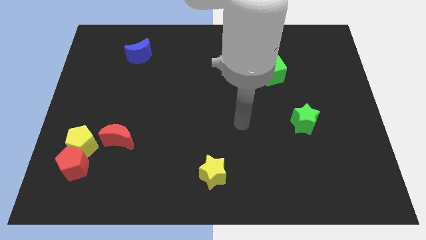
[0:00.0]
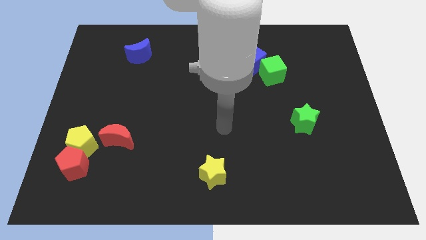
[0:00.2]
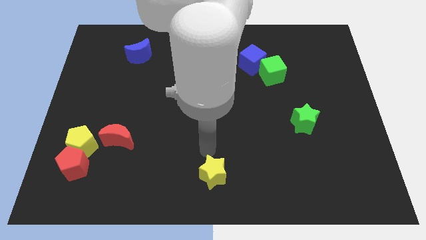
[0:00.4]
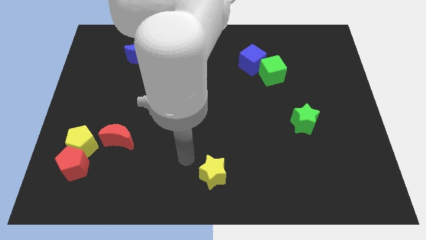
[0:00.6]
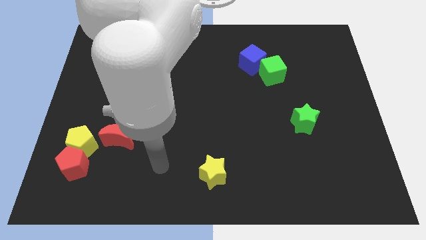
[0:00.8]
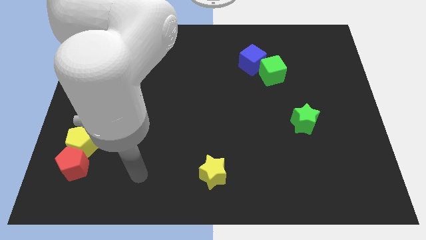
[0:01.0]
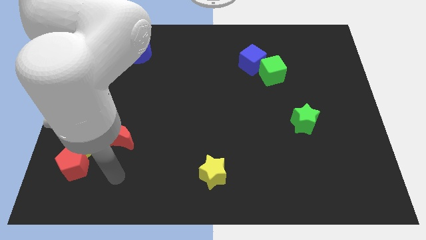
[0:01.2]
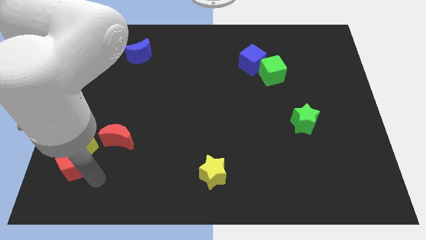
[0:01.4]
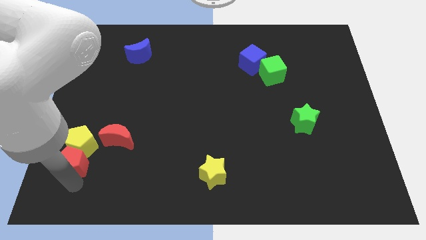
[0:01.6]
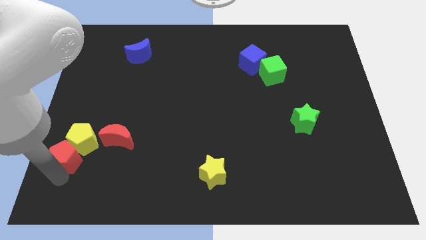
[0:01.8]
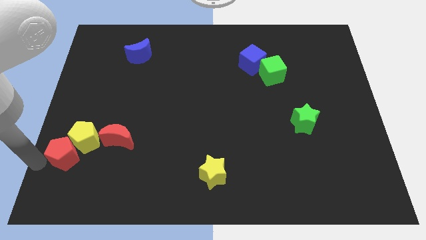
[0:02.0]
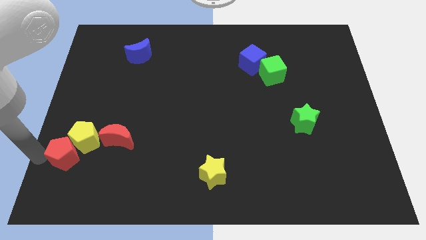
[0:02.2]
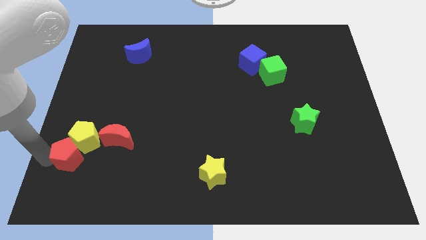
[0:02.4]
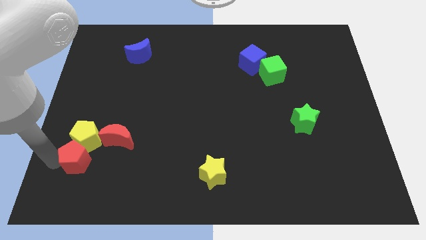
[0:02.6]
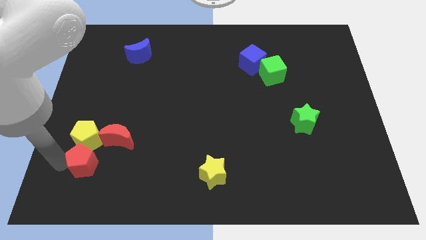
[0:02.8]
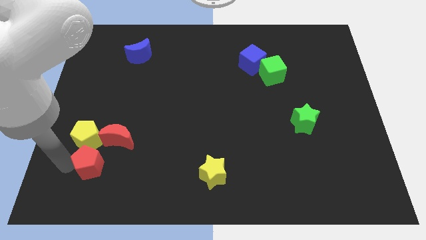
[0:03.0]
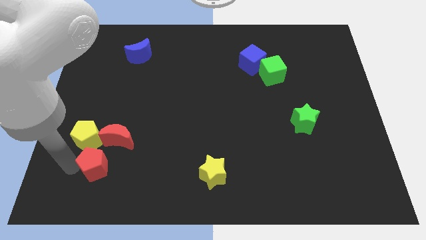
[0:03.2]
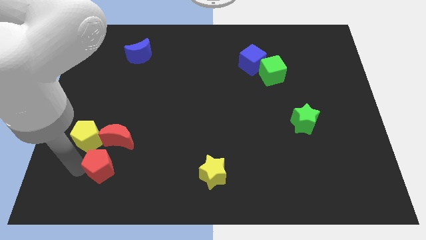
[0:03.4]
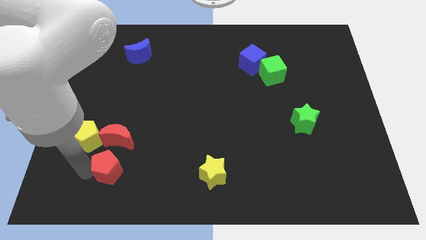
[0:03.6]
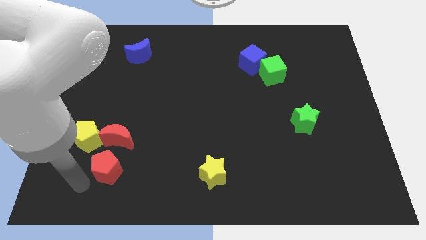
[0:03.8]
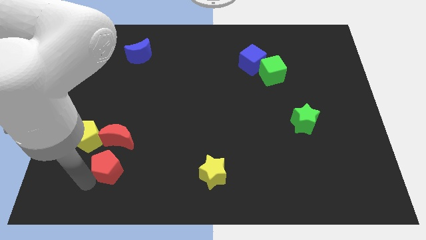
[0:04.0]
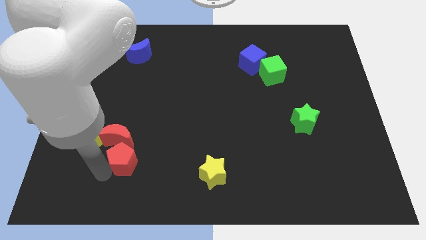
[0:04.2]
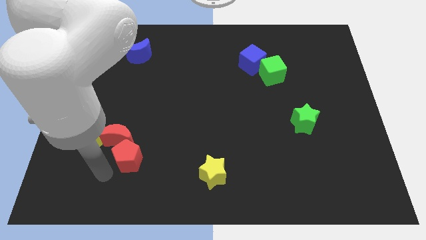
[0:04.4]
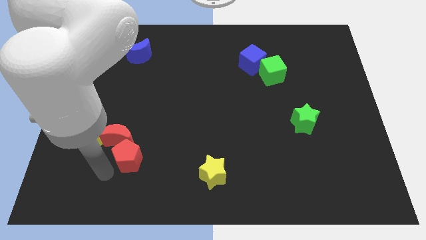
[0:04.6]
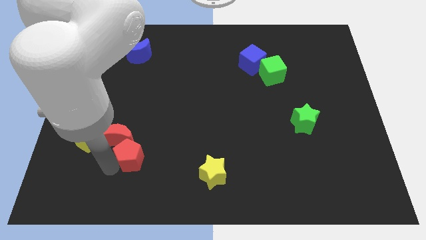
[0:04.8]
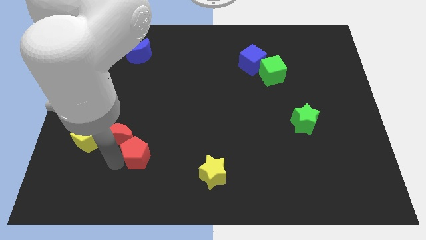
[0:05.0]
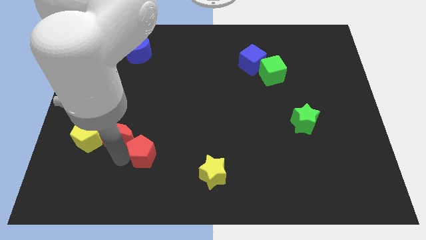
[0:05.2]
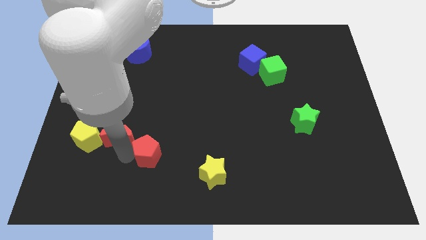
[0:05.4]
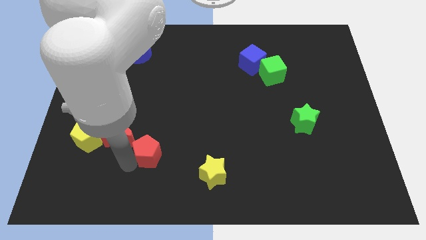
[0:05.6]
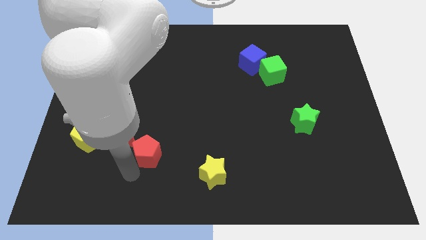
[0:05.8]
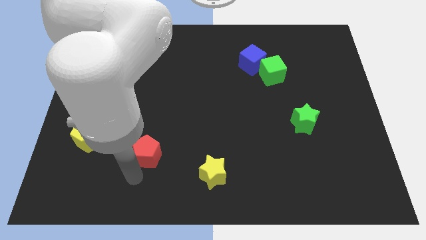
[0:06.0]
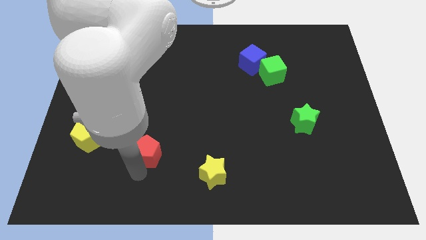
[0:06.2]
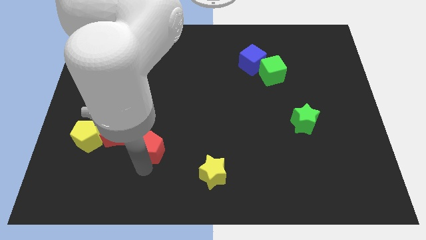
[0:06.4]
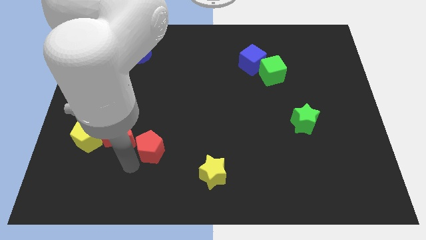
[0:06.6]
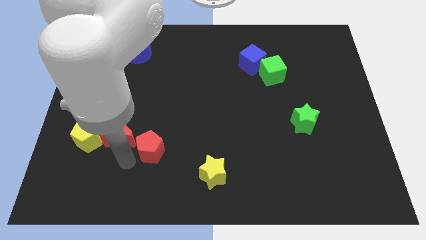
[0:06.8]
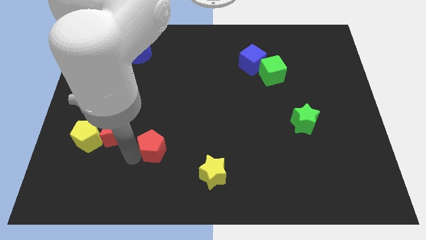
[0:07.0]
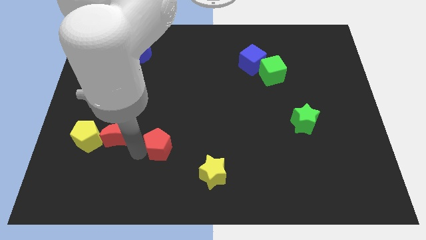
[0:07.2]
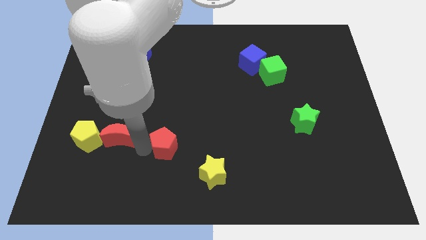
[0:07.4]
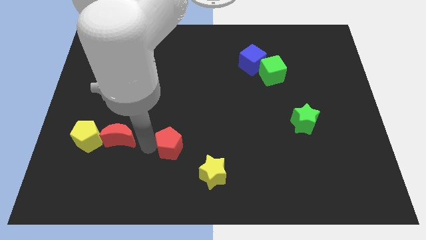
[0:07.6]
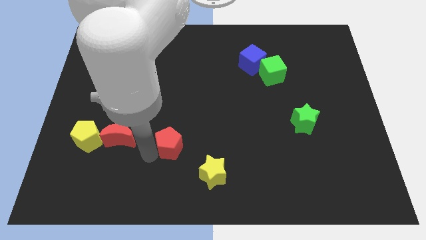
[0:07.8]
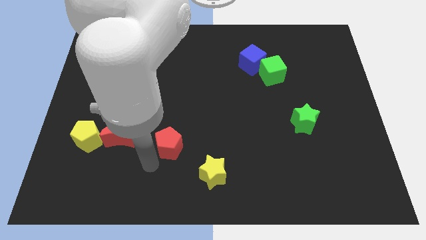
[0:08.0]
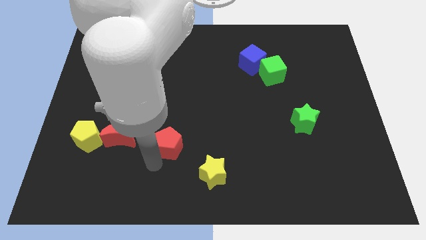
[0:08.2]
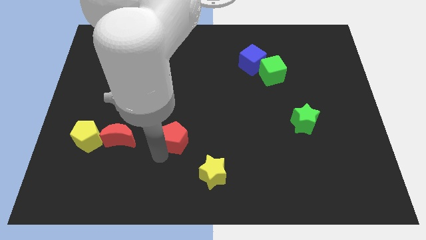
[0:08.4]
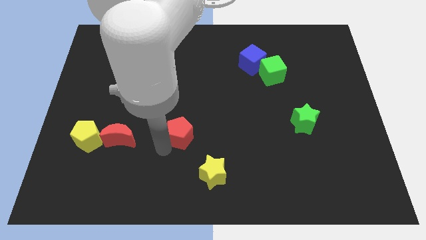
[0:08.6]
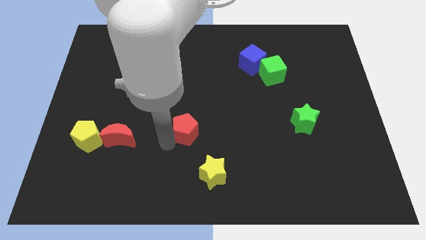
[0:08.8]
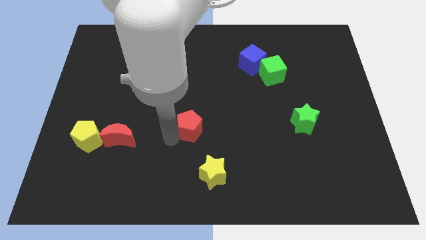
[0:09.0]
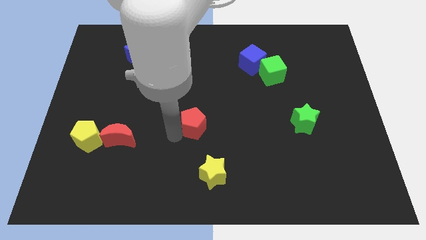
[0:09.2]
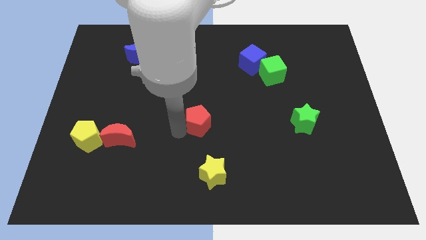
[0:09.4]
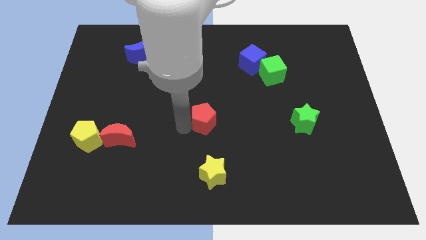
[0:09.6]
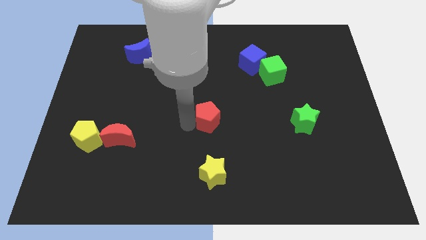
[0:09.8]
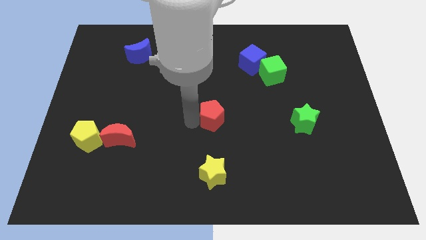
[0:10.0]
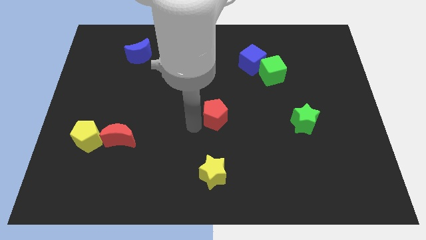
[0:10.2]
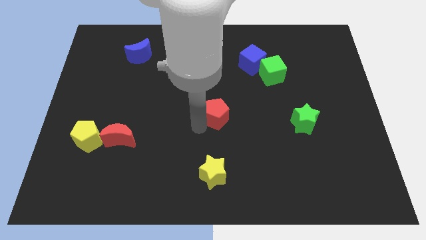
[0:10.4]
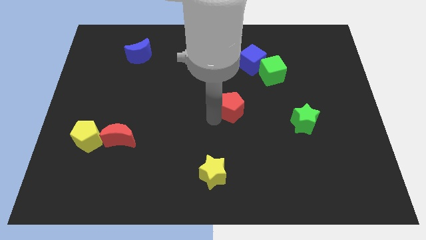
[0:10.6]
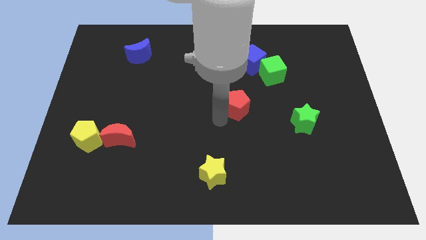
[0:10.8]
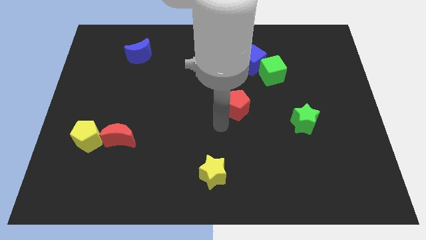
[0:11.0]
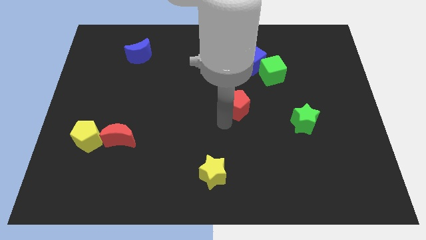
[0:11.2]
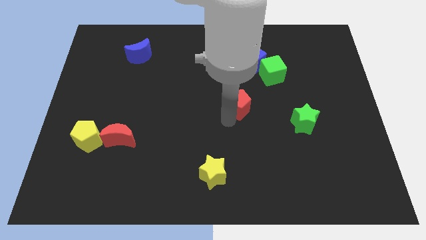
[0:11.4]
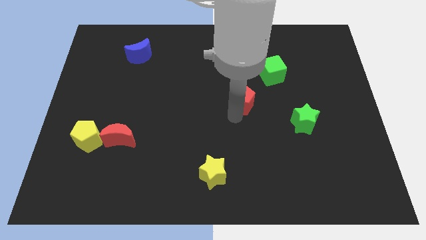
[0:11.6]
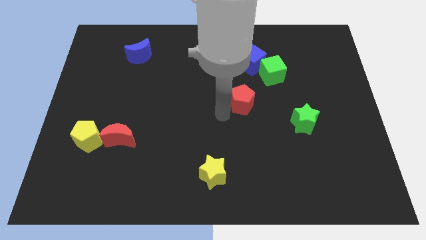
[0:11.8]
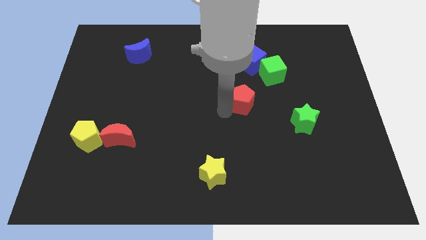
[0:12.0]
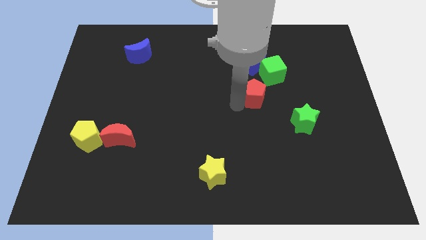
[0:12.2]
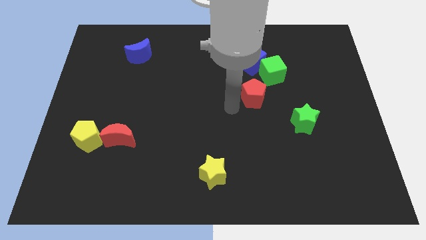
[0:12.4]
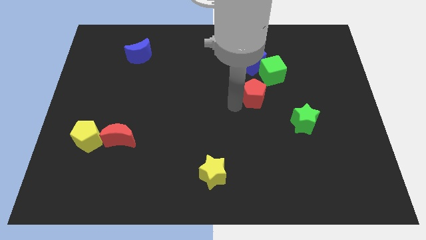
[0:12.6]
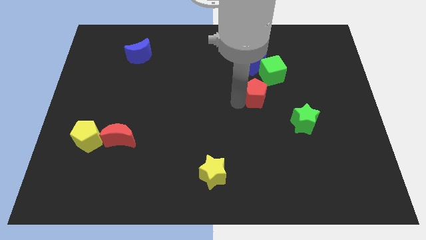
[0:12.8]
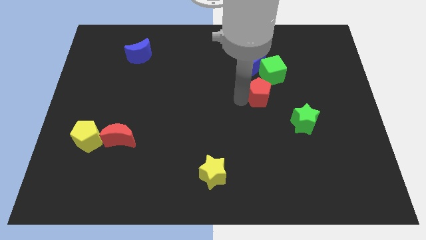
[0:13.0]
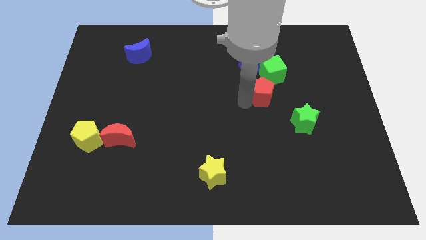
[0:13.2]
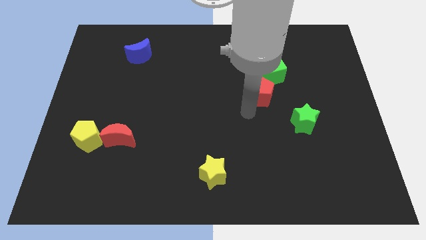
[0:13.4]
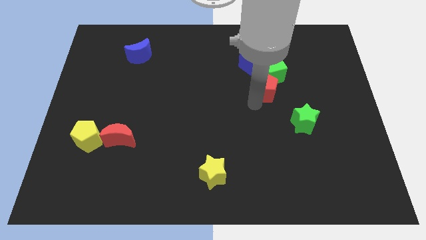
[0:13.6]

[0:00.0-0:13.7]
push the red pentagon to the bottom right of the blue cube

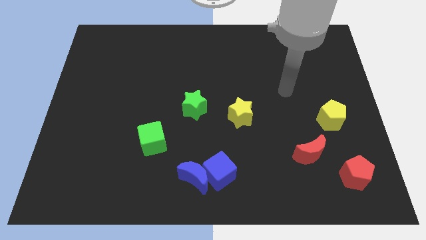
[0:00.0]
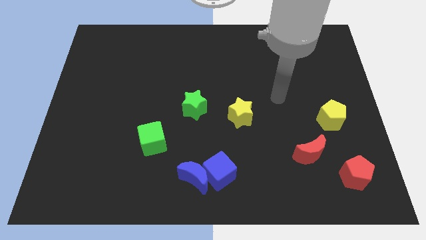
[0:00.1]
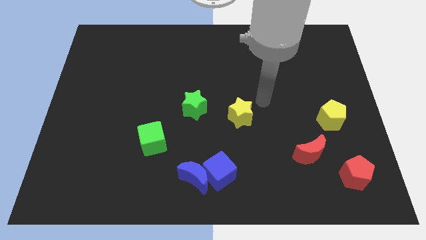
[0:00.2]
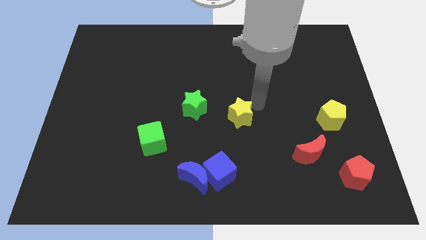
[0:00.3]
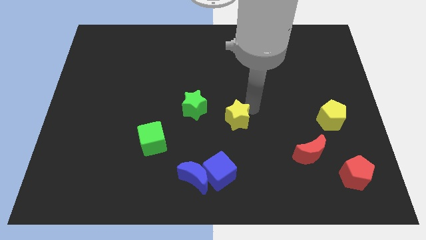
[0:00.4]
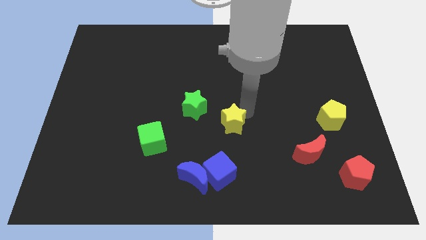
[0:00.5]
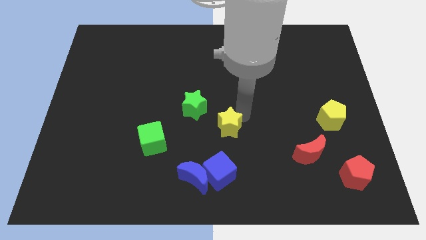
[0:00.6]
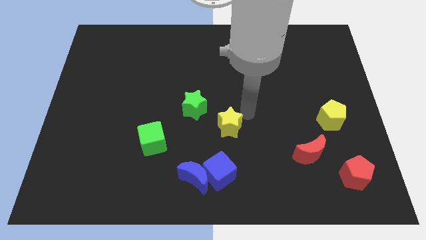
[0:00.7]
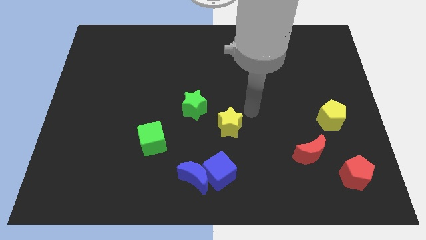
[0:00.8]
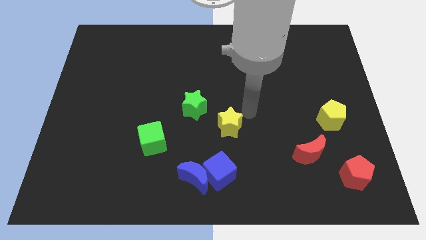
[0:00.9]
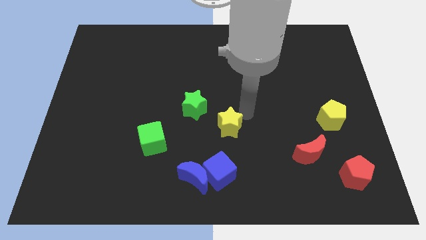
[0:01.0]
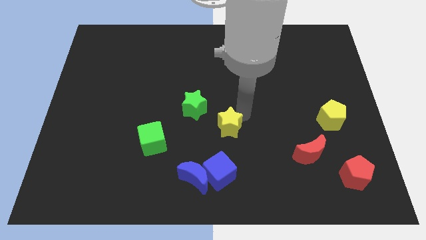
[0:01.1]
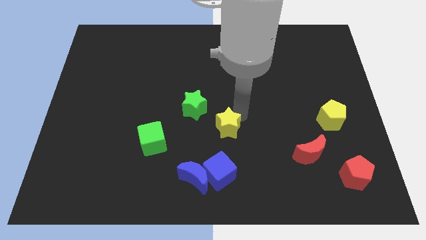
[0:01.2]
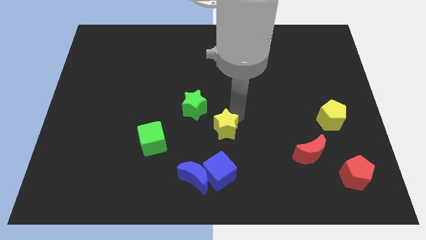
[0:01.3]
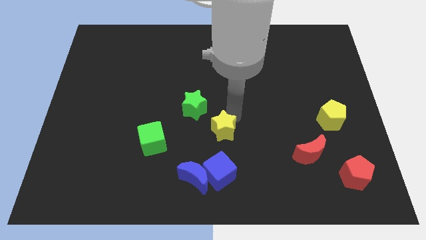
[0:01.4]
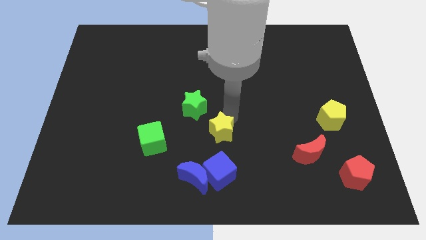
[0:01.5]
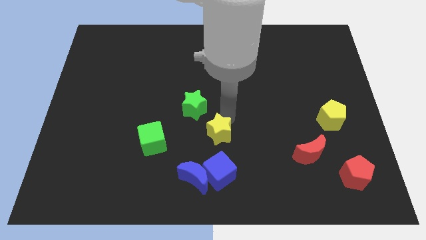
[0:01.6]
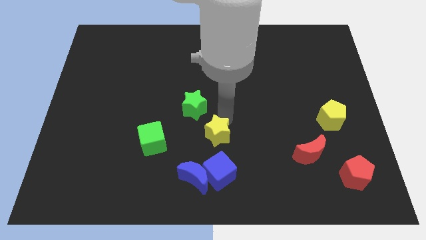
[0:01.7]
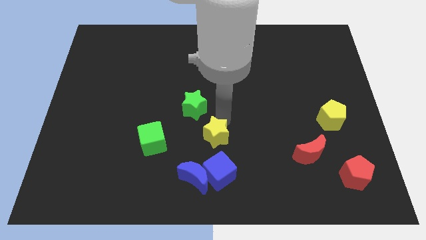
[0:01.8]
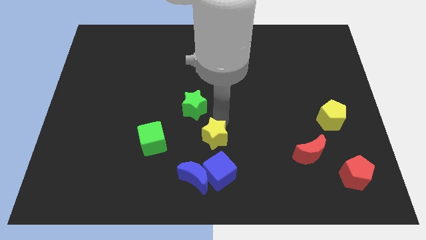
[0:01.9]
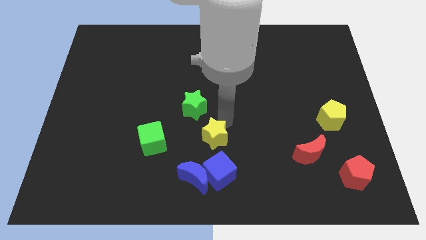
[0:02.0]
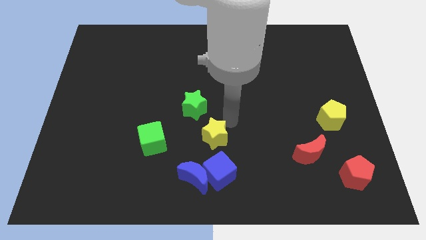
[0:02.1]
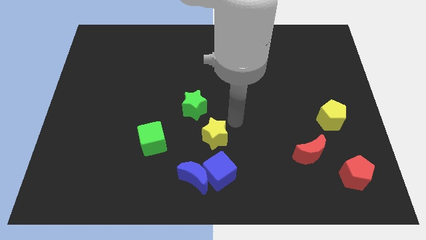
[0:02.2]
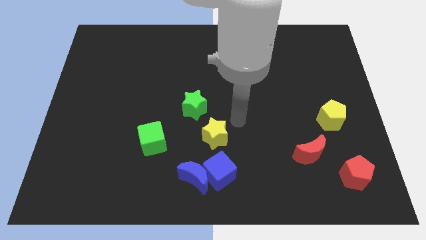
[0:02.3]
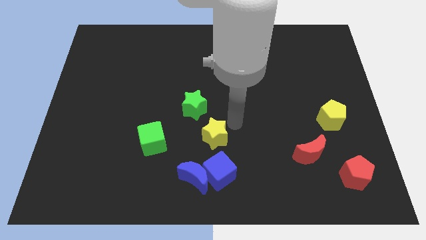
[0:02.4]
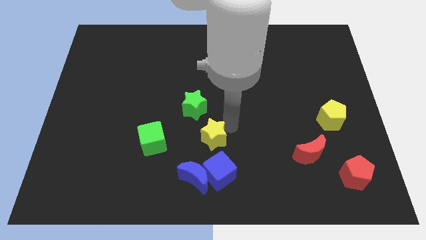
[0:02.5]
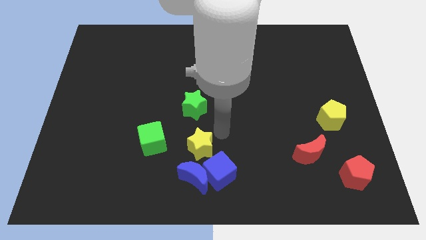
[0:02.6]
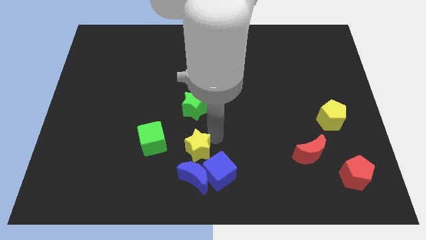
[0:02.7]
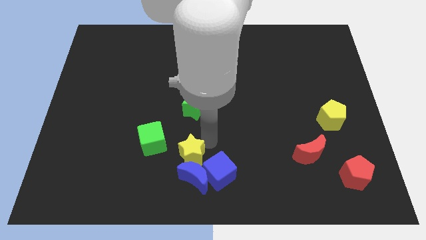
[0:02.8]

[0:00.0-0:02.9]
push the yellow star to the bottom right of the green cube
